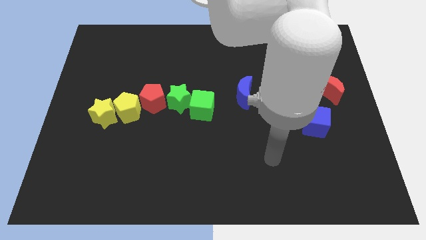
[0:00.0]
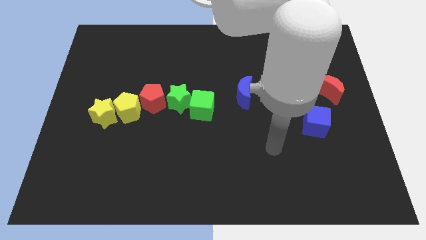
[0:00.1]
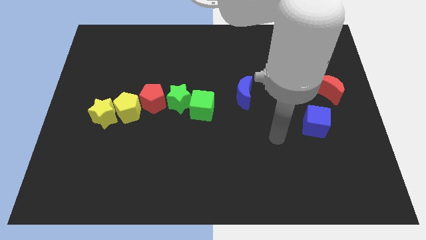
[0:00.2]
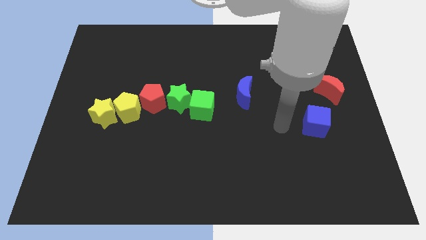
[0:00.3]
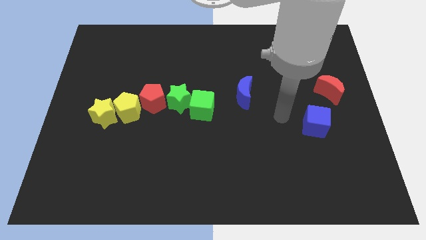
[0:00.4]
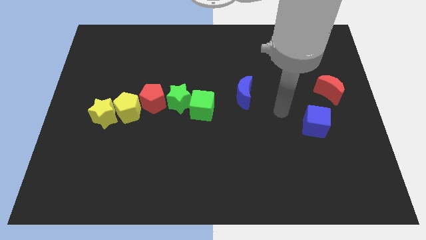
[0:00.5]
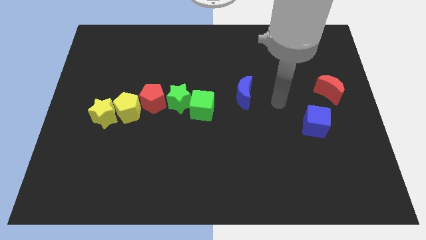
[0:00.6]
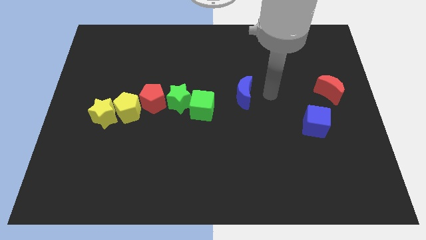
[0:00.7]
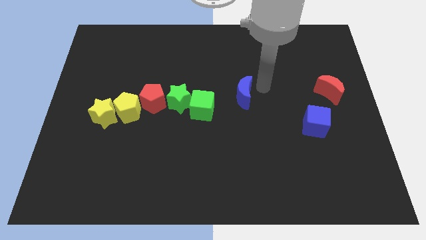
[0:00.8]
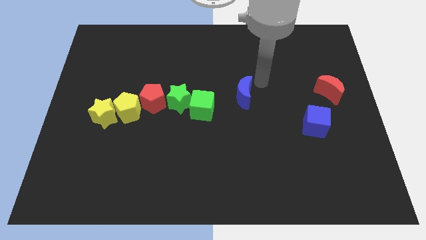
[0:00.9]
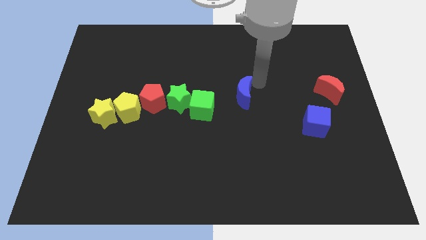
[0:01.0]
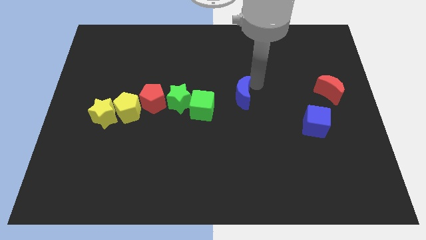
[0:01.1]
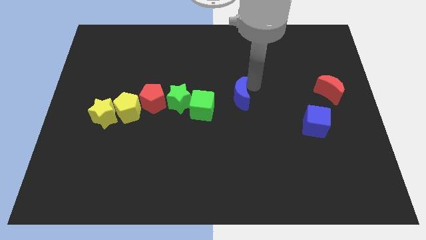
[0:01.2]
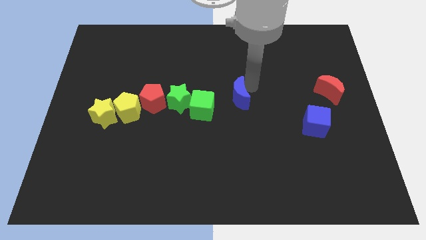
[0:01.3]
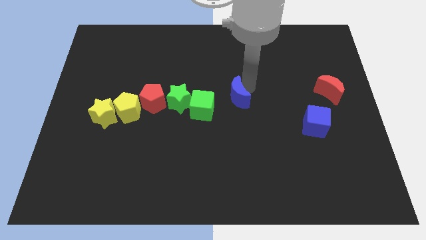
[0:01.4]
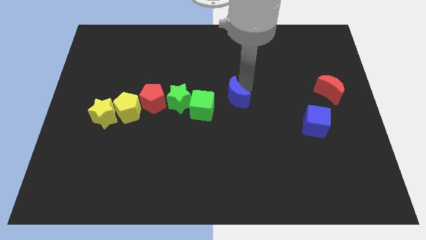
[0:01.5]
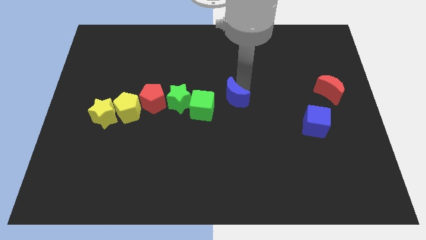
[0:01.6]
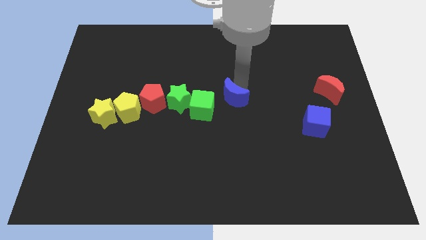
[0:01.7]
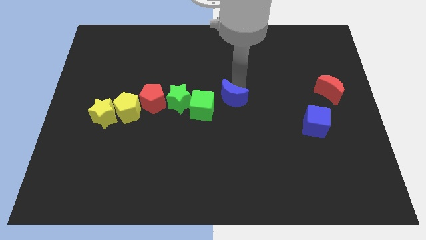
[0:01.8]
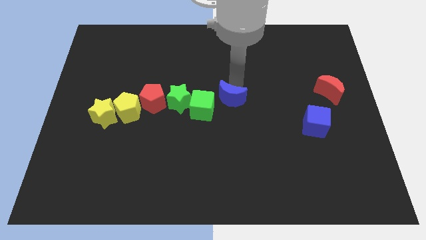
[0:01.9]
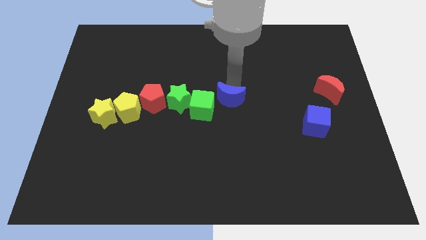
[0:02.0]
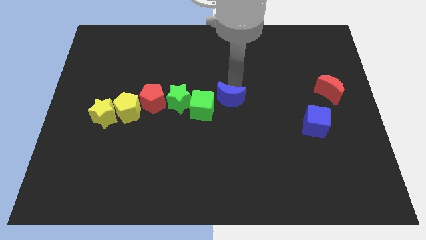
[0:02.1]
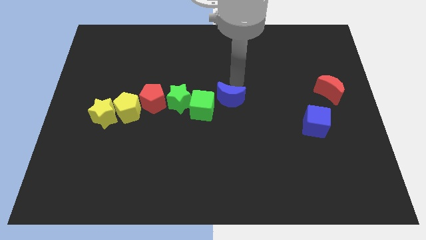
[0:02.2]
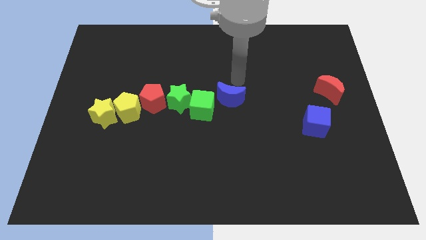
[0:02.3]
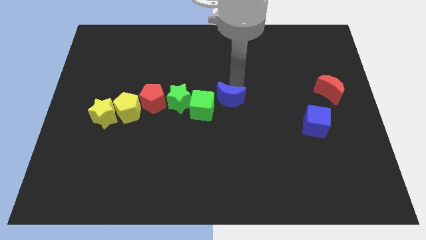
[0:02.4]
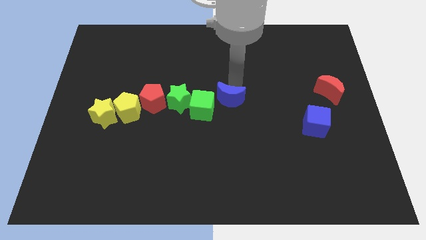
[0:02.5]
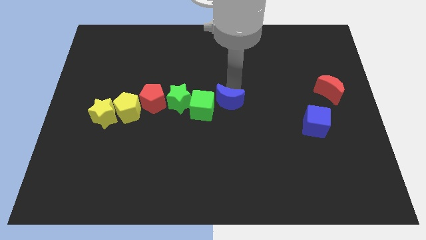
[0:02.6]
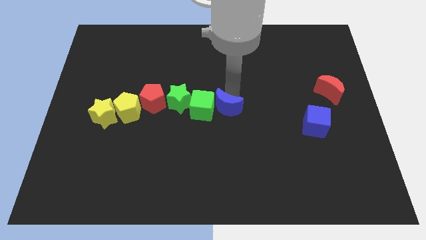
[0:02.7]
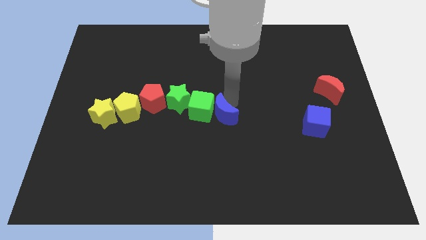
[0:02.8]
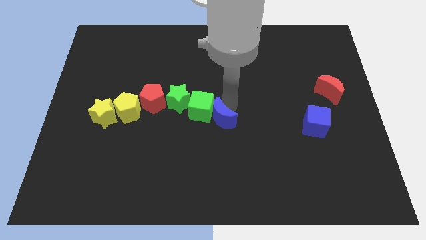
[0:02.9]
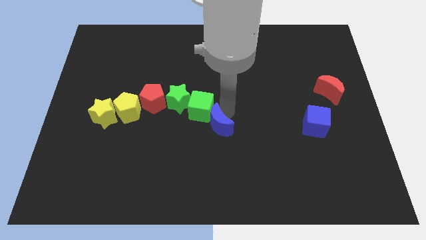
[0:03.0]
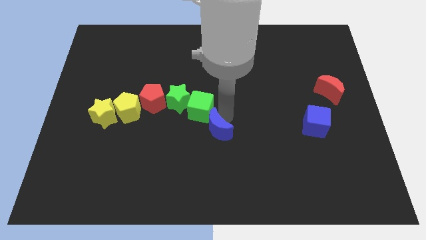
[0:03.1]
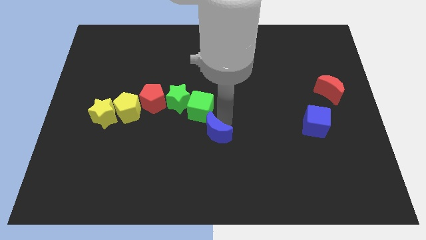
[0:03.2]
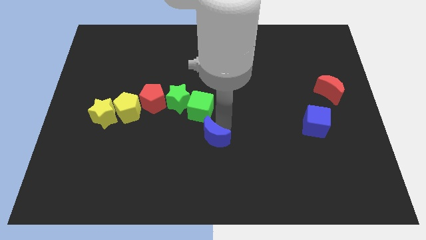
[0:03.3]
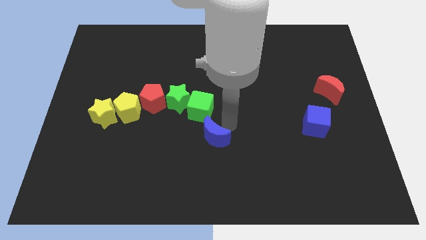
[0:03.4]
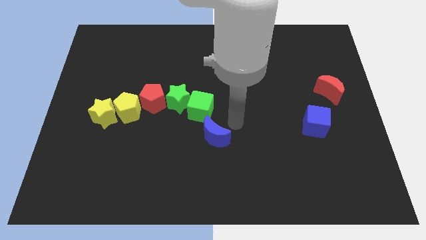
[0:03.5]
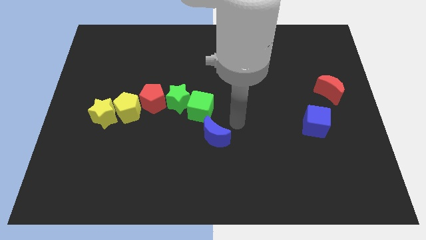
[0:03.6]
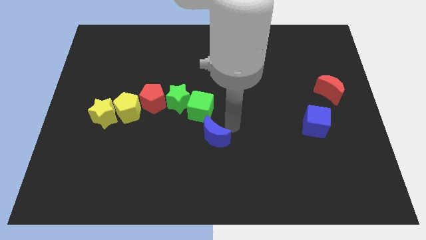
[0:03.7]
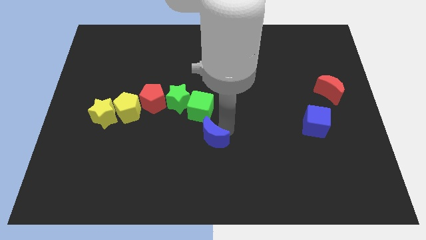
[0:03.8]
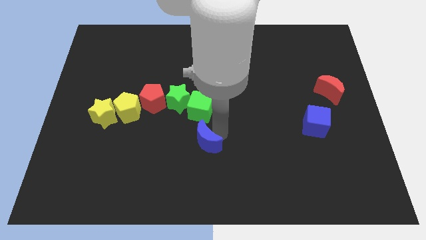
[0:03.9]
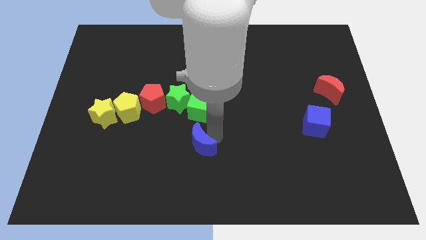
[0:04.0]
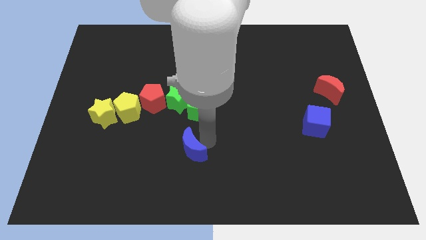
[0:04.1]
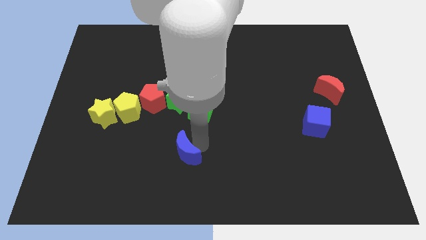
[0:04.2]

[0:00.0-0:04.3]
move the blue moon diagonally downwards and left

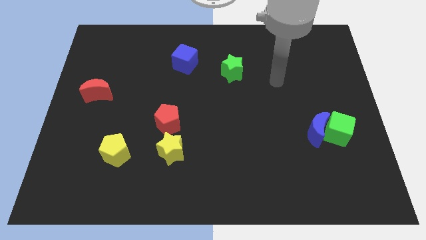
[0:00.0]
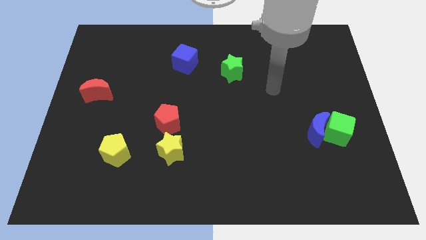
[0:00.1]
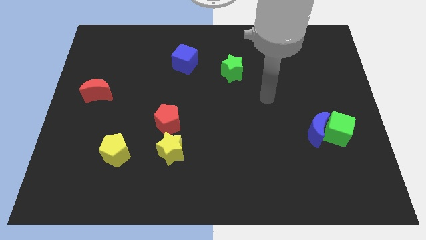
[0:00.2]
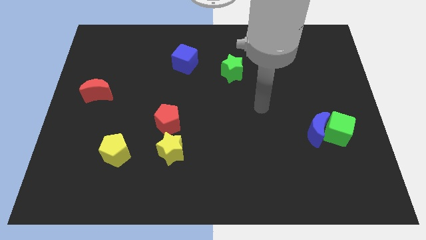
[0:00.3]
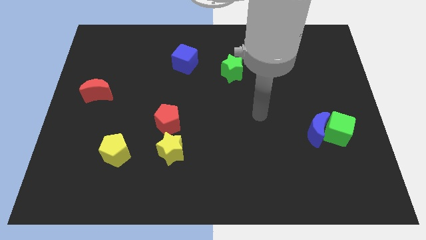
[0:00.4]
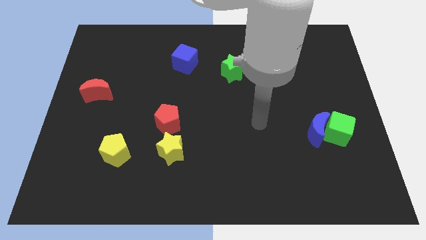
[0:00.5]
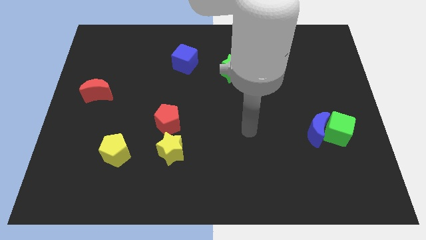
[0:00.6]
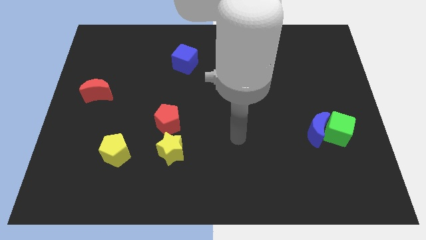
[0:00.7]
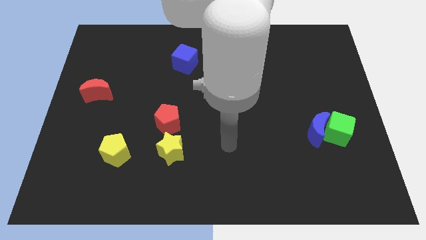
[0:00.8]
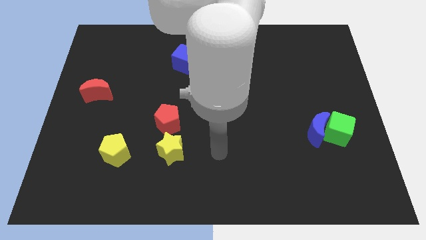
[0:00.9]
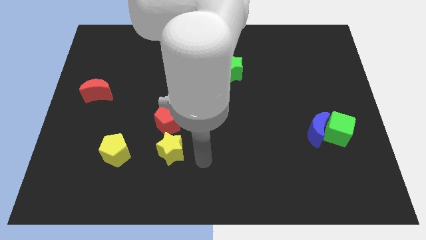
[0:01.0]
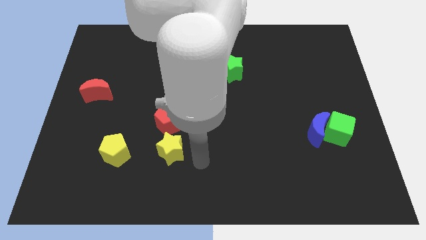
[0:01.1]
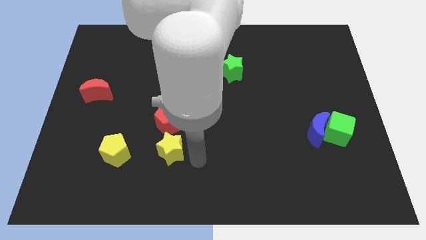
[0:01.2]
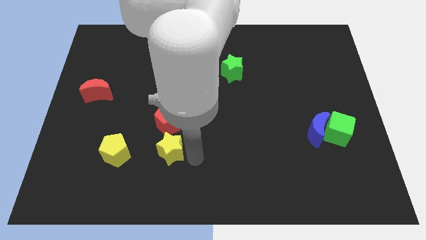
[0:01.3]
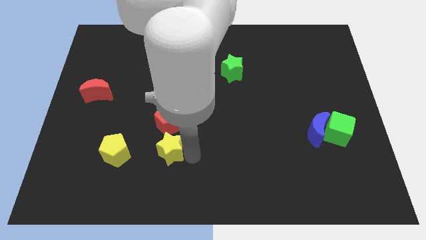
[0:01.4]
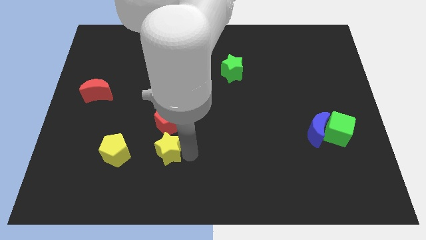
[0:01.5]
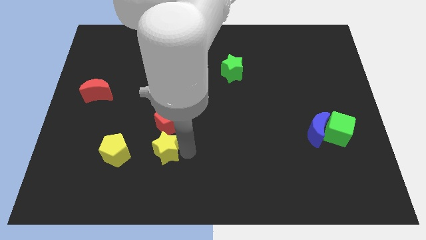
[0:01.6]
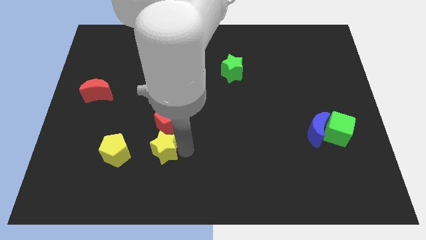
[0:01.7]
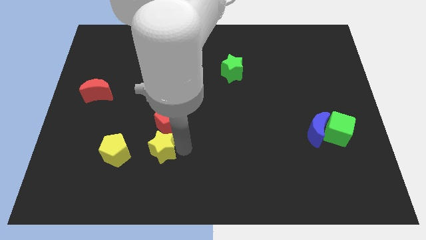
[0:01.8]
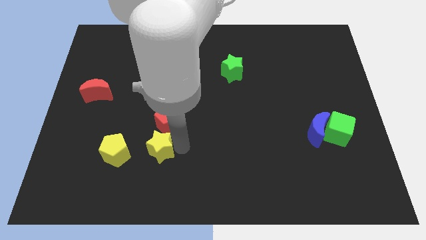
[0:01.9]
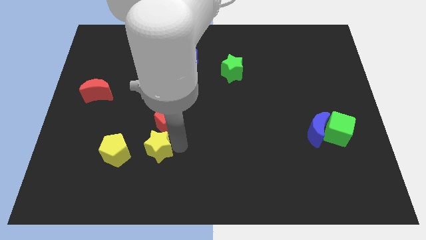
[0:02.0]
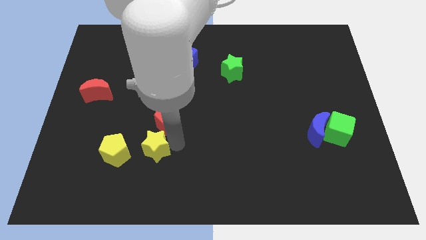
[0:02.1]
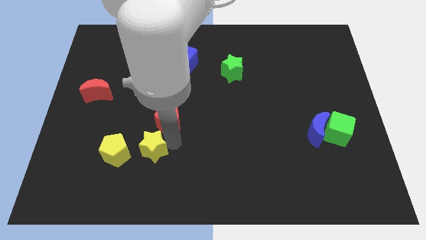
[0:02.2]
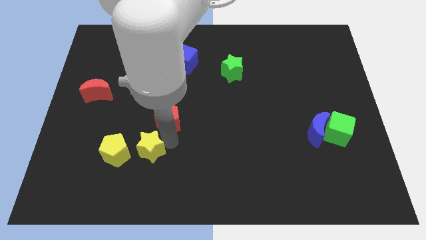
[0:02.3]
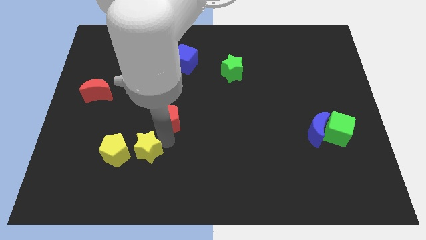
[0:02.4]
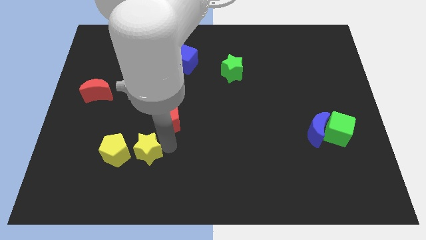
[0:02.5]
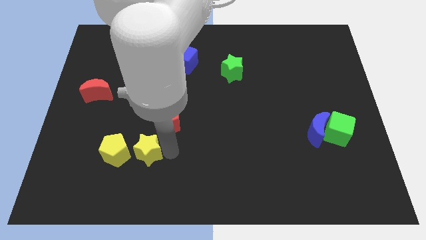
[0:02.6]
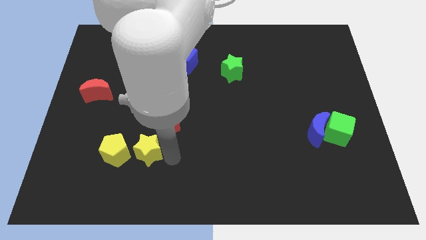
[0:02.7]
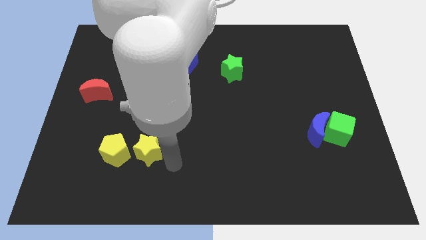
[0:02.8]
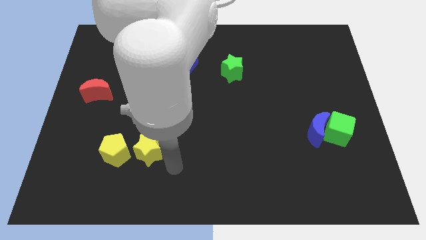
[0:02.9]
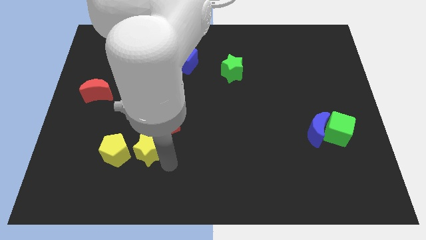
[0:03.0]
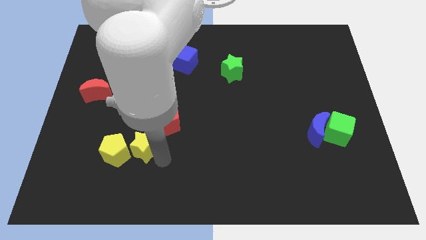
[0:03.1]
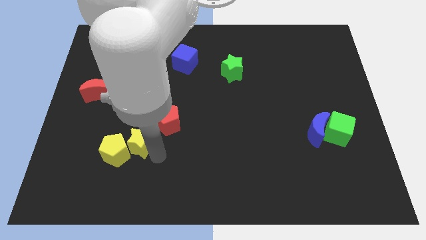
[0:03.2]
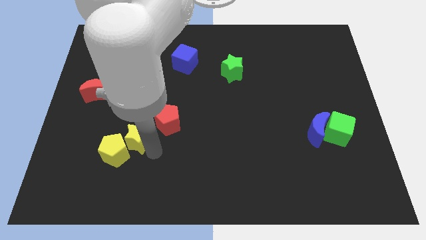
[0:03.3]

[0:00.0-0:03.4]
push the yellow star to the left a little

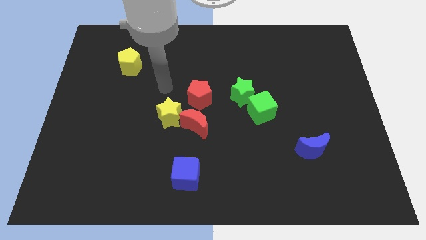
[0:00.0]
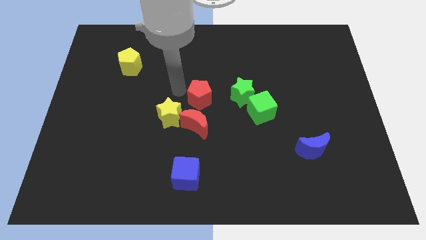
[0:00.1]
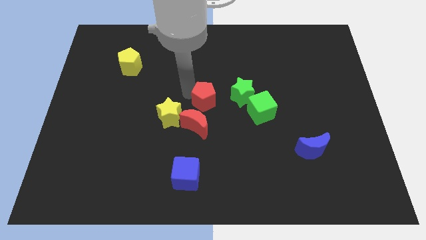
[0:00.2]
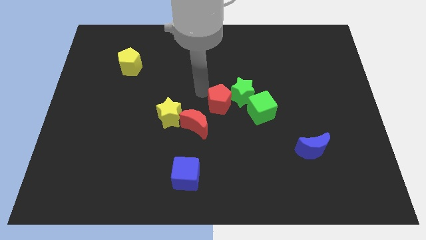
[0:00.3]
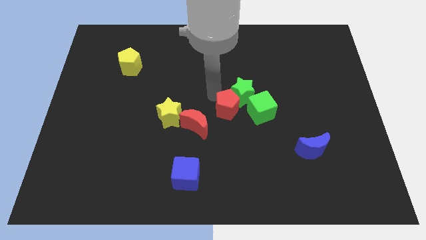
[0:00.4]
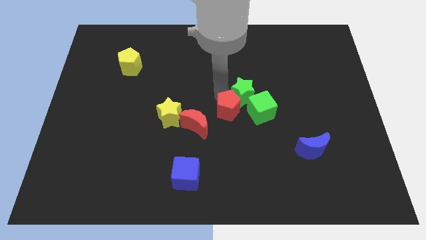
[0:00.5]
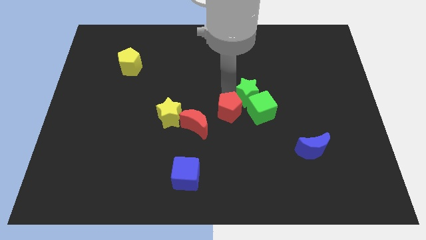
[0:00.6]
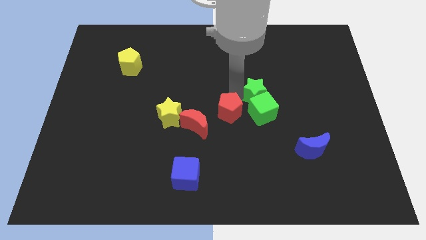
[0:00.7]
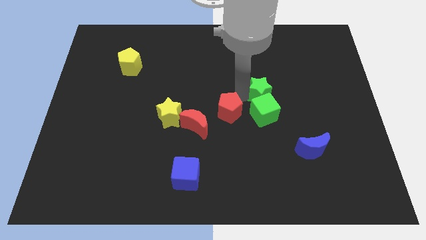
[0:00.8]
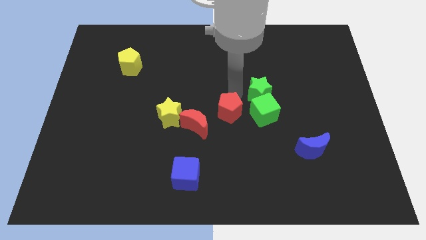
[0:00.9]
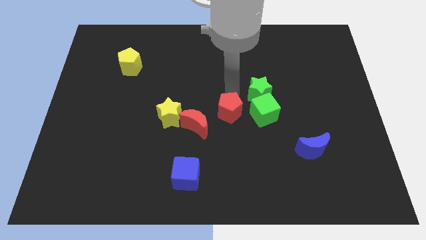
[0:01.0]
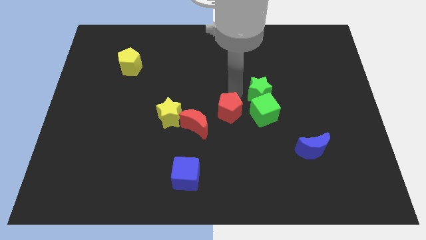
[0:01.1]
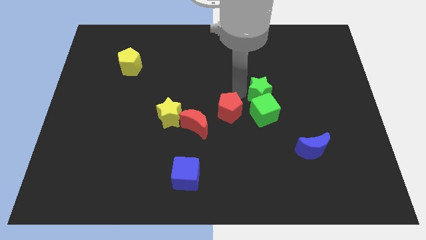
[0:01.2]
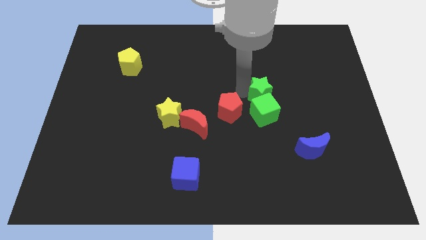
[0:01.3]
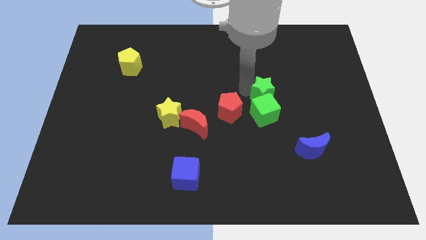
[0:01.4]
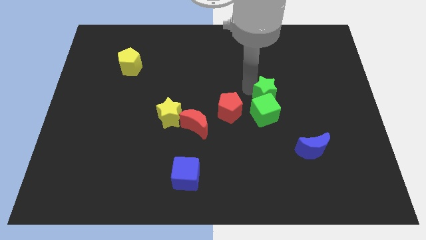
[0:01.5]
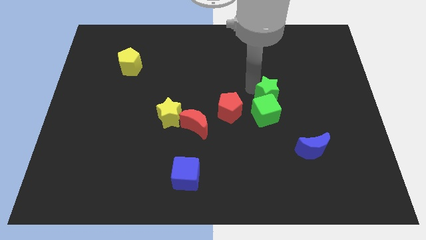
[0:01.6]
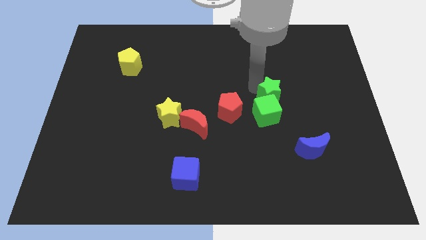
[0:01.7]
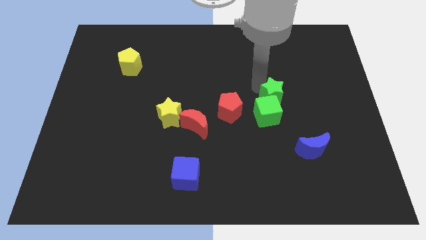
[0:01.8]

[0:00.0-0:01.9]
slide the green star slightly right
